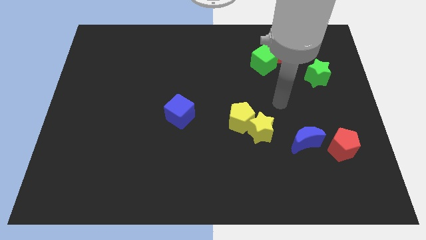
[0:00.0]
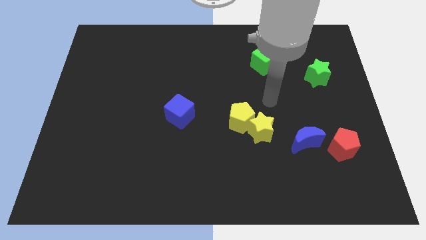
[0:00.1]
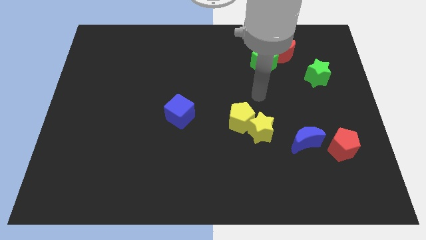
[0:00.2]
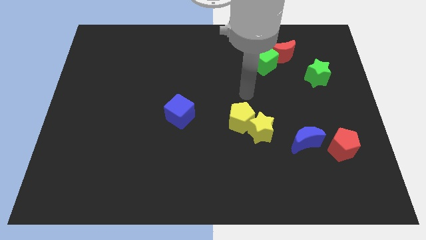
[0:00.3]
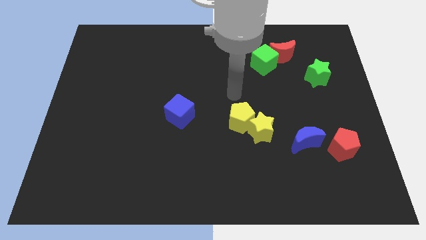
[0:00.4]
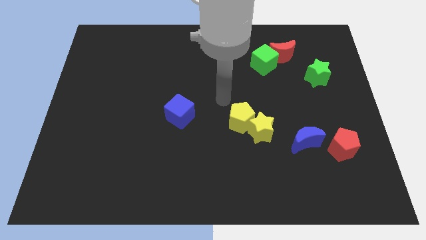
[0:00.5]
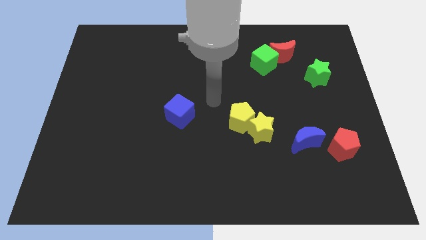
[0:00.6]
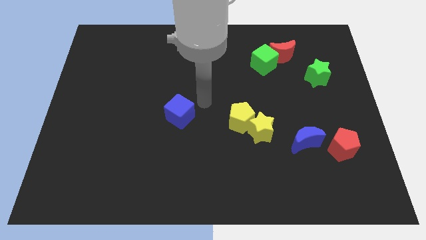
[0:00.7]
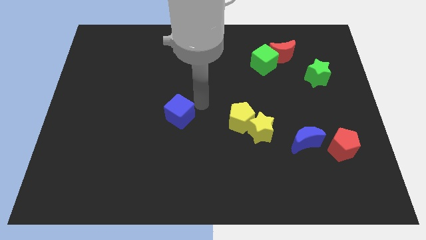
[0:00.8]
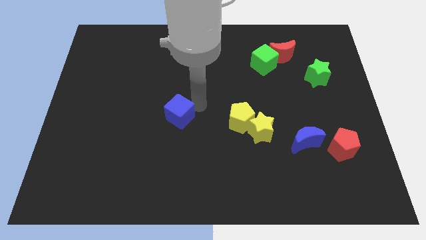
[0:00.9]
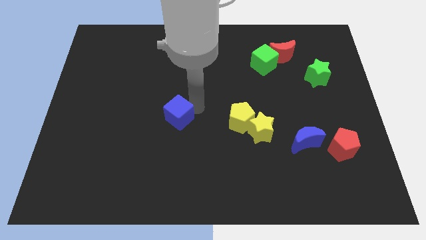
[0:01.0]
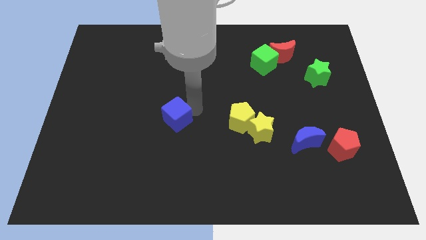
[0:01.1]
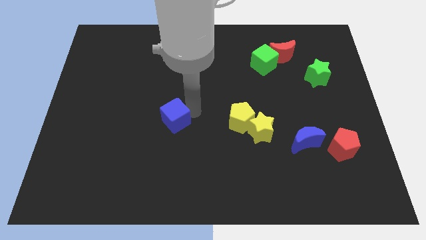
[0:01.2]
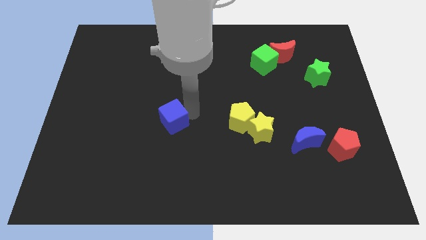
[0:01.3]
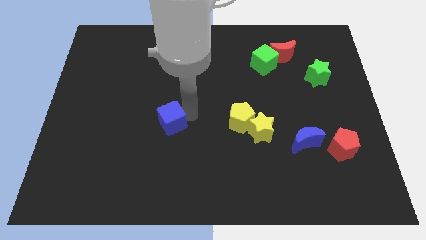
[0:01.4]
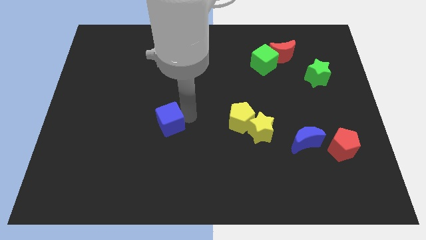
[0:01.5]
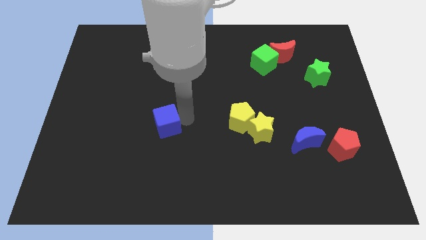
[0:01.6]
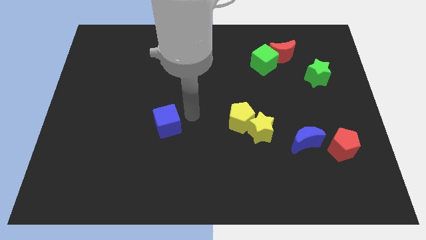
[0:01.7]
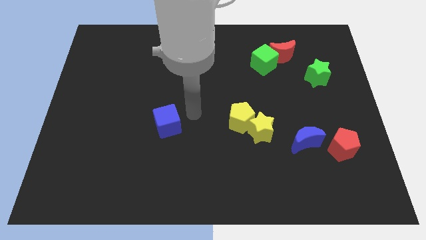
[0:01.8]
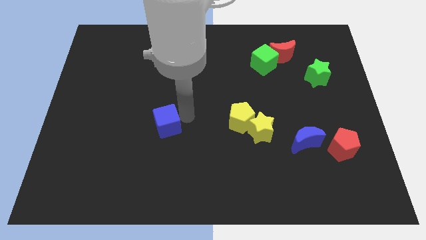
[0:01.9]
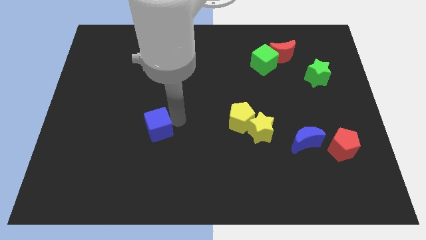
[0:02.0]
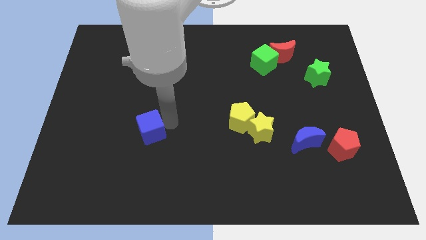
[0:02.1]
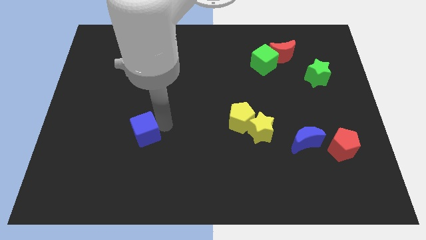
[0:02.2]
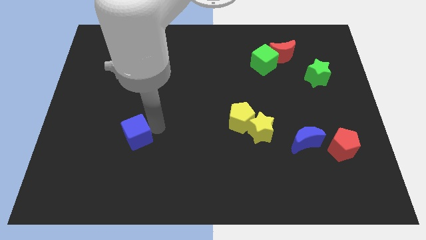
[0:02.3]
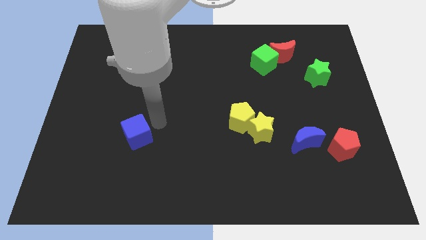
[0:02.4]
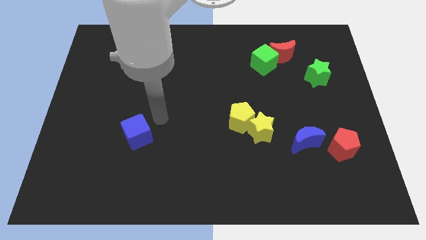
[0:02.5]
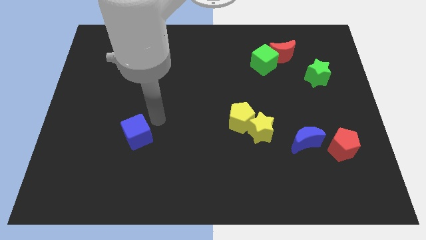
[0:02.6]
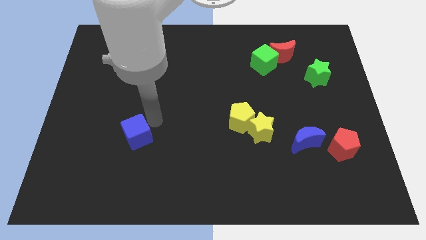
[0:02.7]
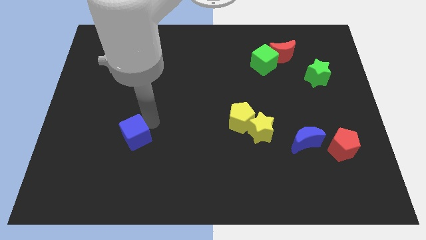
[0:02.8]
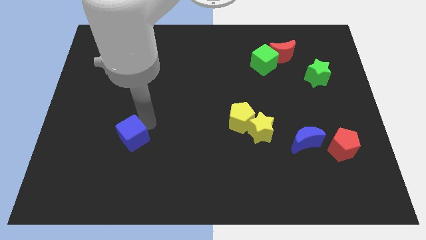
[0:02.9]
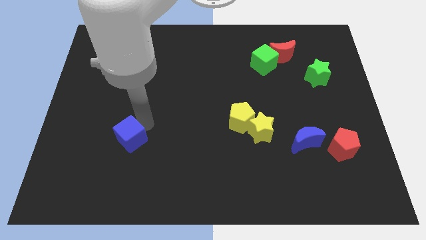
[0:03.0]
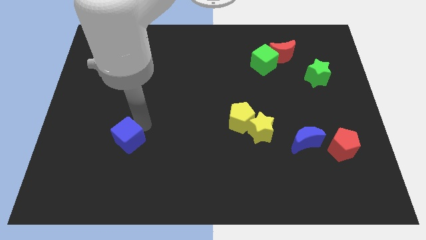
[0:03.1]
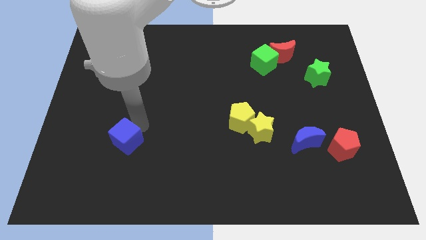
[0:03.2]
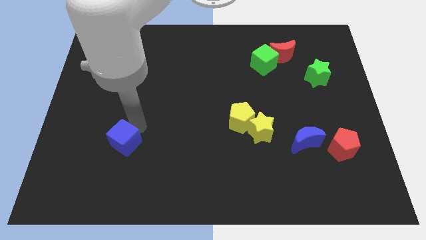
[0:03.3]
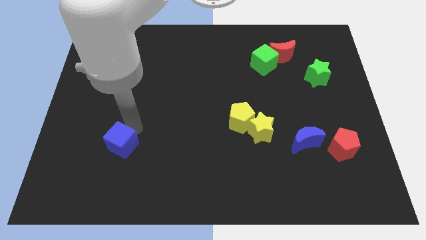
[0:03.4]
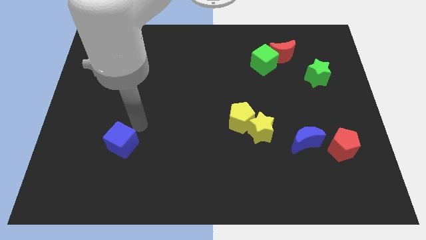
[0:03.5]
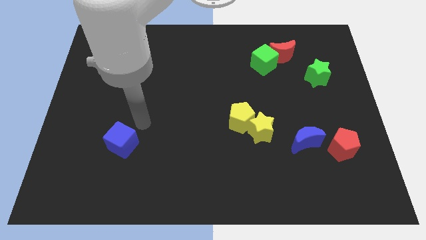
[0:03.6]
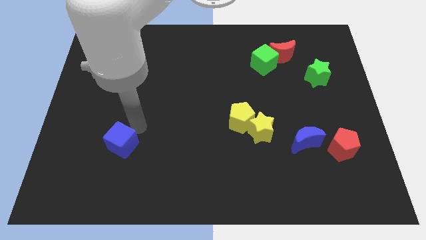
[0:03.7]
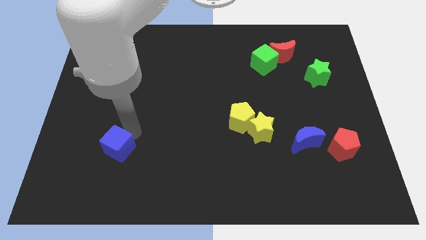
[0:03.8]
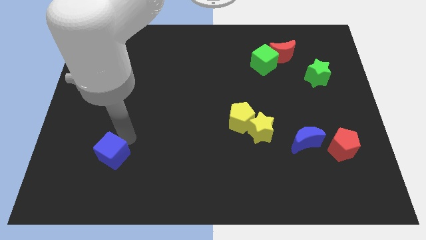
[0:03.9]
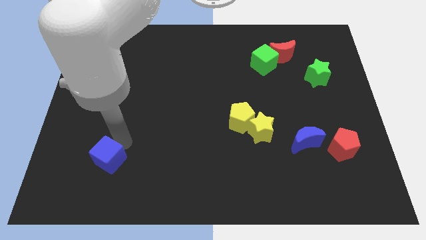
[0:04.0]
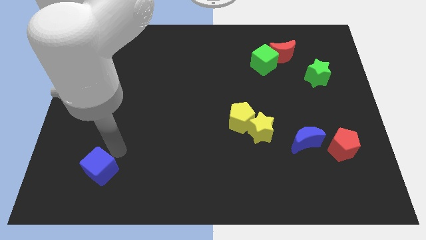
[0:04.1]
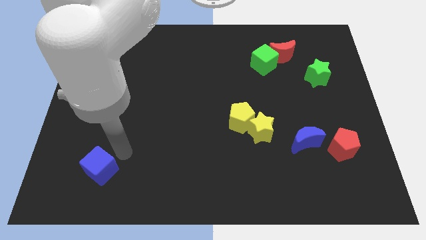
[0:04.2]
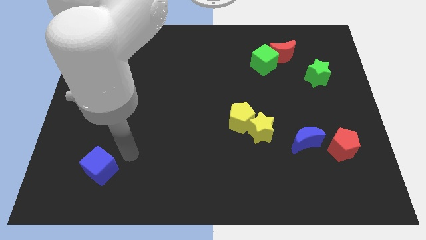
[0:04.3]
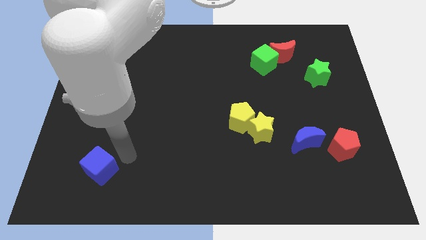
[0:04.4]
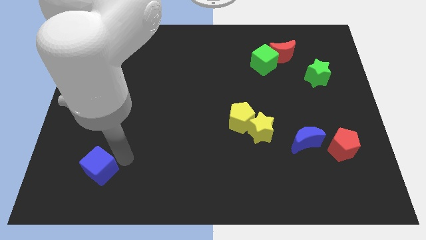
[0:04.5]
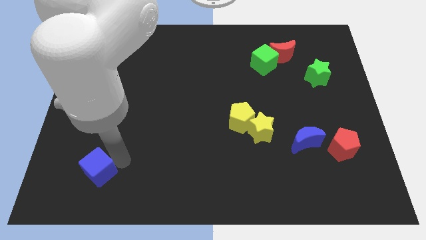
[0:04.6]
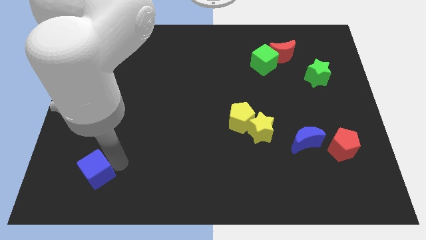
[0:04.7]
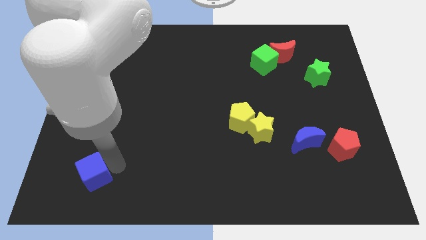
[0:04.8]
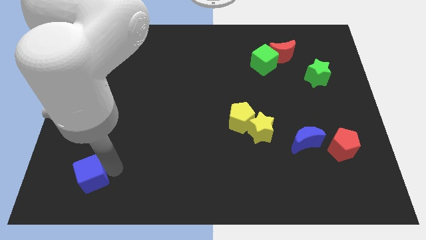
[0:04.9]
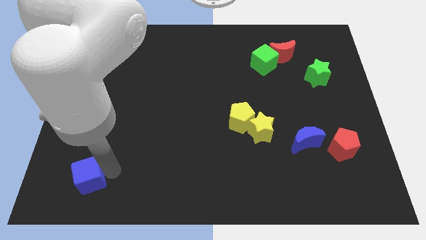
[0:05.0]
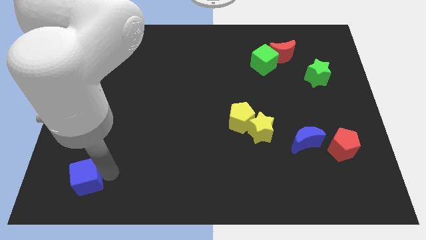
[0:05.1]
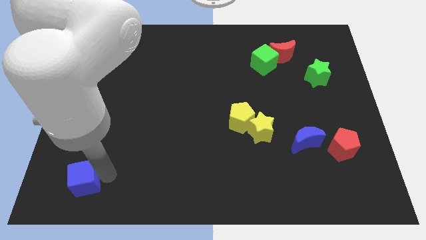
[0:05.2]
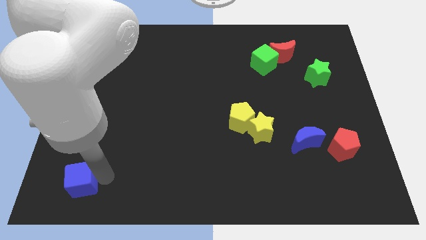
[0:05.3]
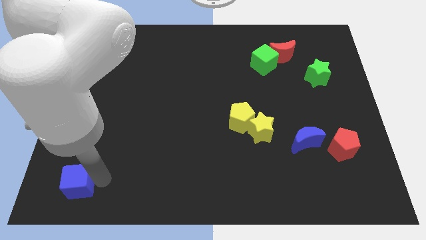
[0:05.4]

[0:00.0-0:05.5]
move the blue cube to the bottom left

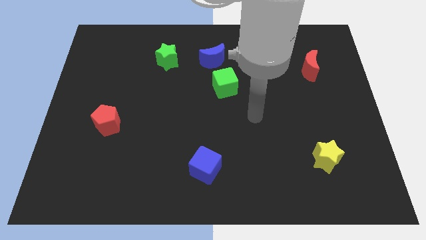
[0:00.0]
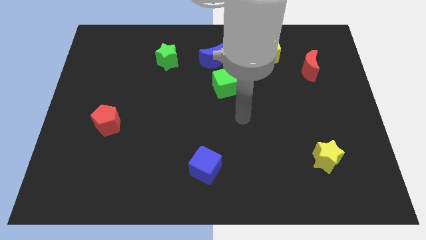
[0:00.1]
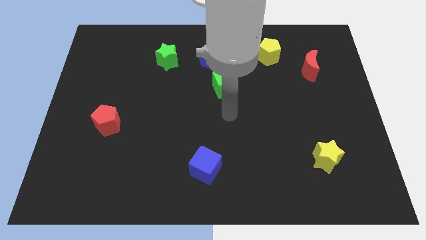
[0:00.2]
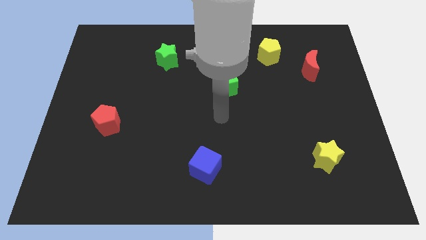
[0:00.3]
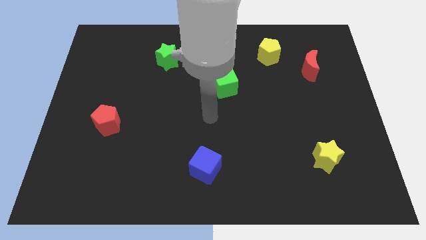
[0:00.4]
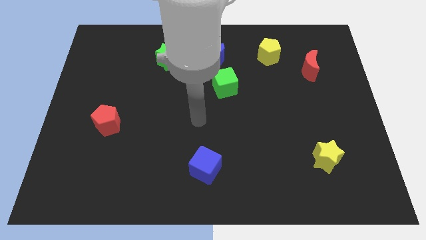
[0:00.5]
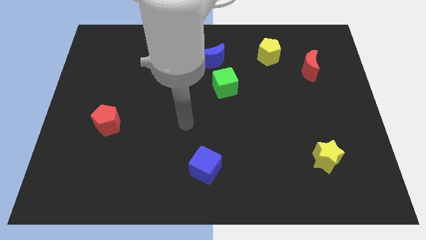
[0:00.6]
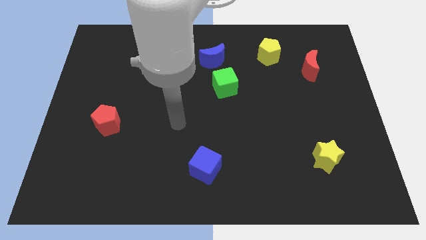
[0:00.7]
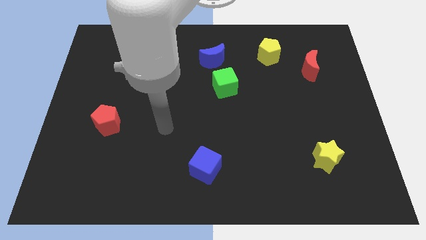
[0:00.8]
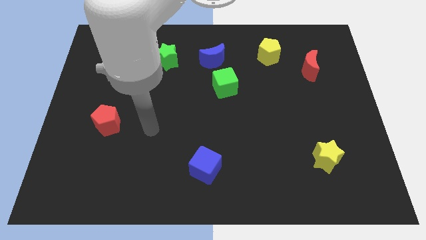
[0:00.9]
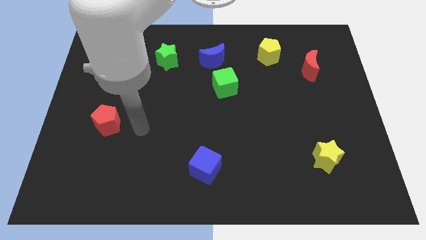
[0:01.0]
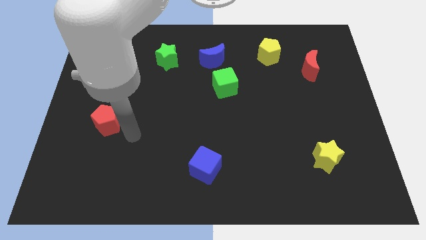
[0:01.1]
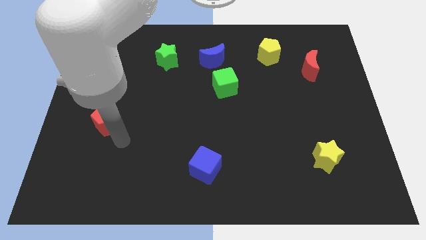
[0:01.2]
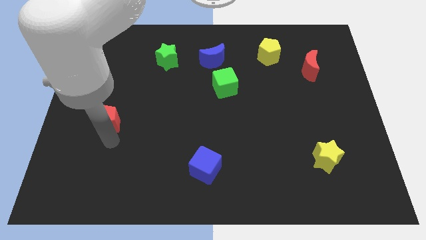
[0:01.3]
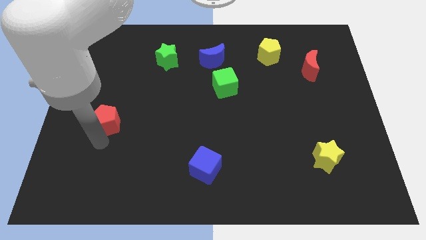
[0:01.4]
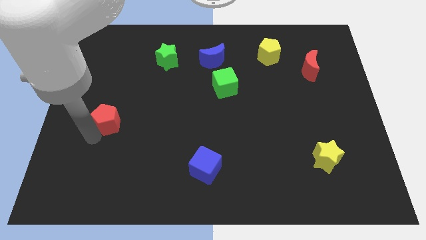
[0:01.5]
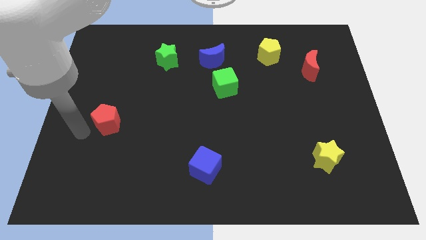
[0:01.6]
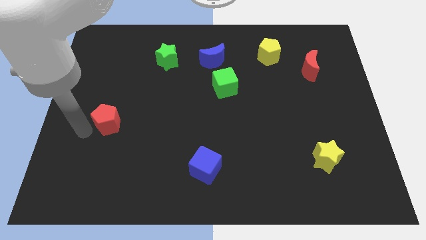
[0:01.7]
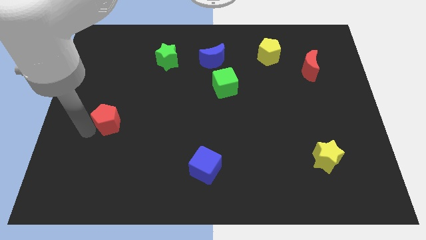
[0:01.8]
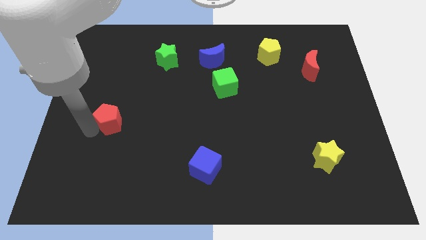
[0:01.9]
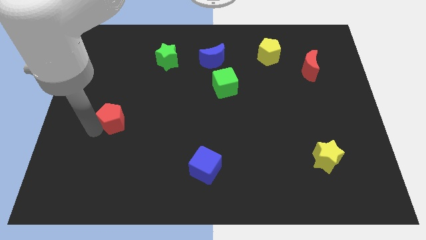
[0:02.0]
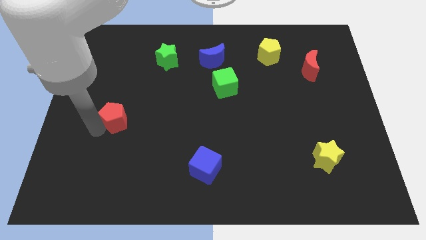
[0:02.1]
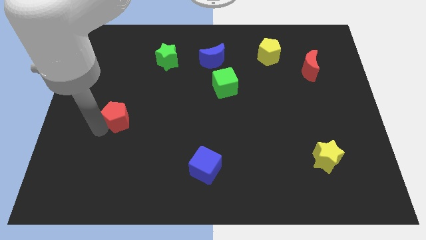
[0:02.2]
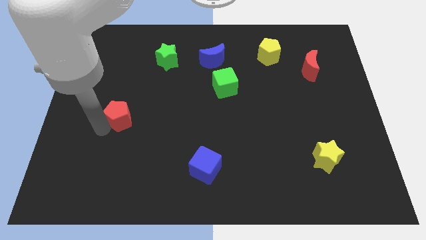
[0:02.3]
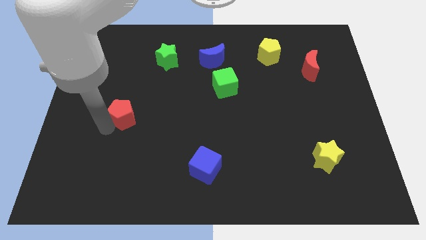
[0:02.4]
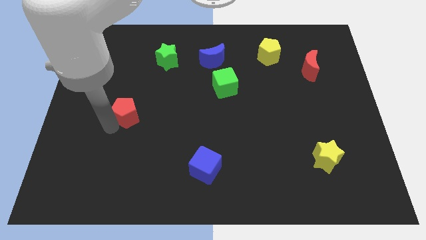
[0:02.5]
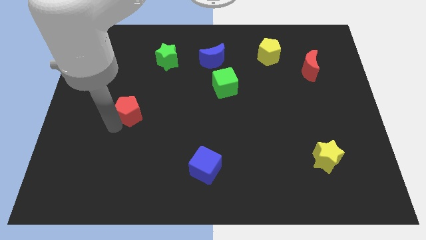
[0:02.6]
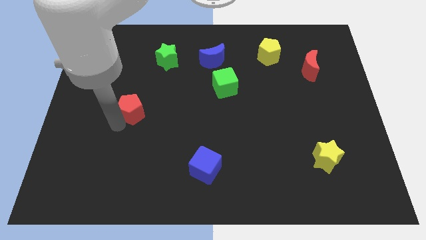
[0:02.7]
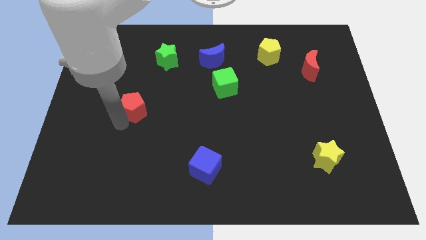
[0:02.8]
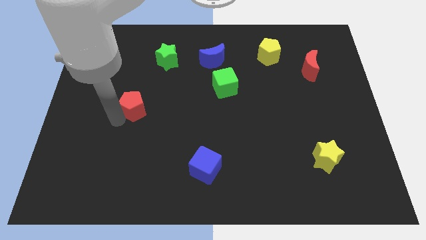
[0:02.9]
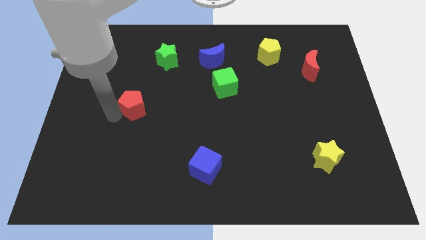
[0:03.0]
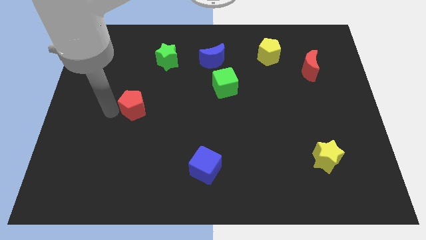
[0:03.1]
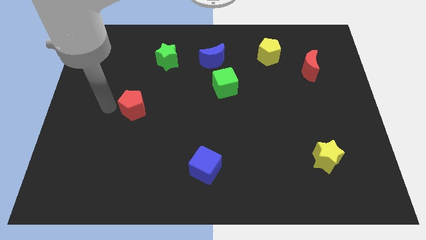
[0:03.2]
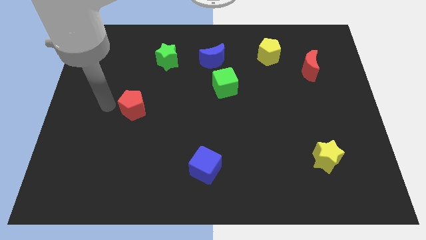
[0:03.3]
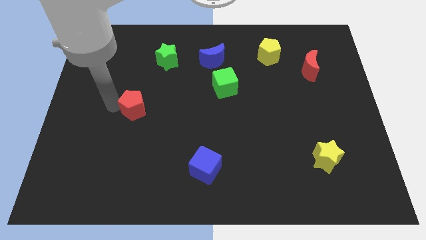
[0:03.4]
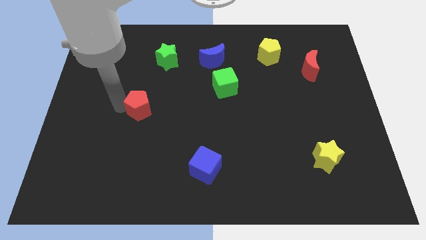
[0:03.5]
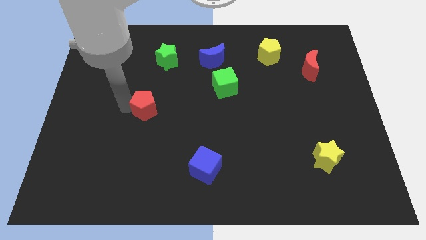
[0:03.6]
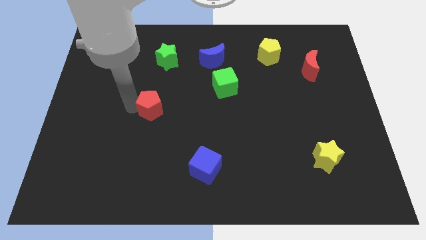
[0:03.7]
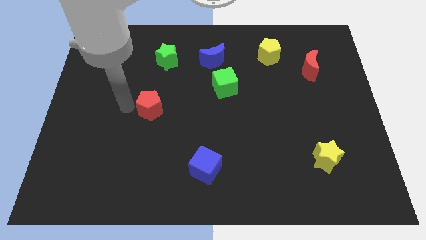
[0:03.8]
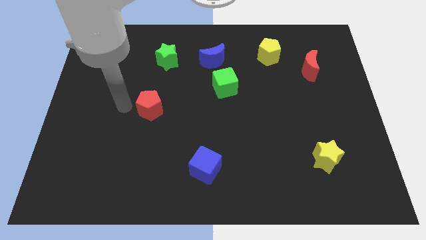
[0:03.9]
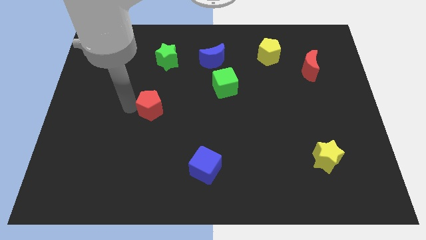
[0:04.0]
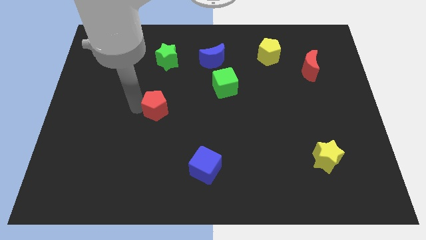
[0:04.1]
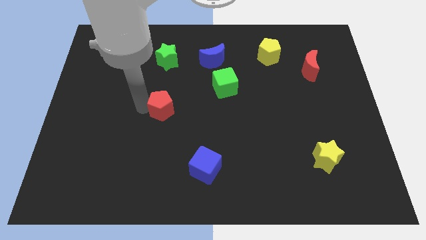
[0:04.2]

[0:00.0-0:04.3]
slide the red pentagon to the center
